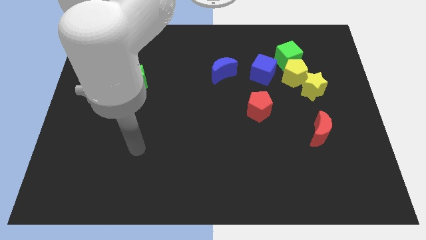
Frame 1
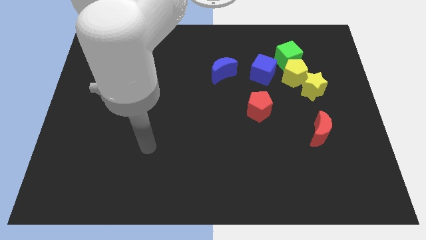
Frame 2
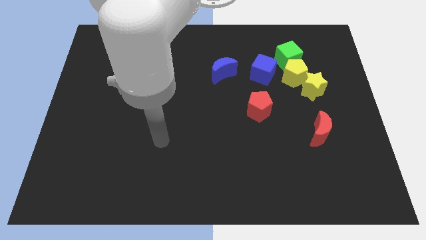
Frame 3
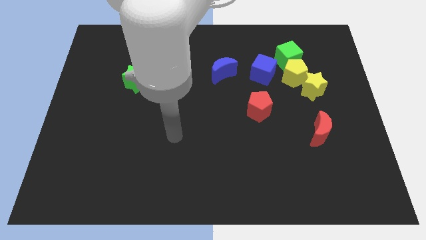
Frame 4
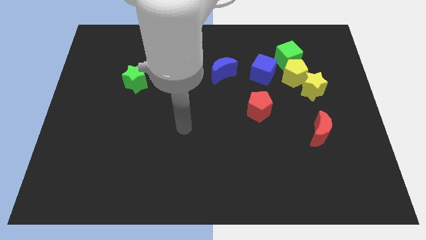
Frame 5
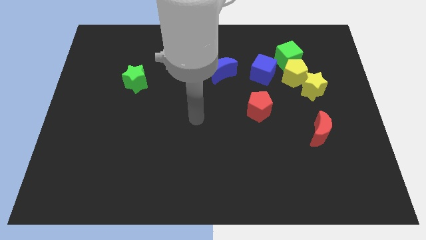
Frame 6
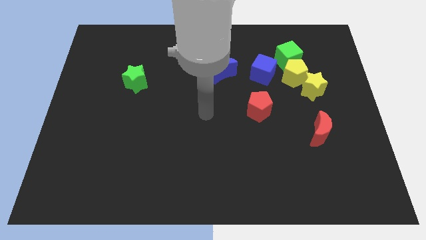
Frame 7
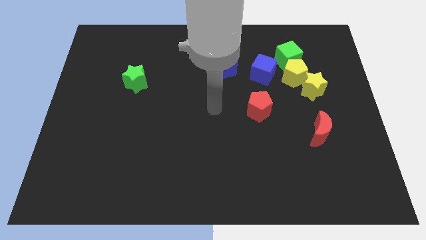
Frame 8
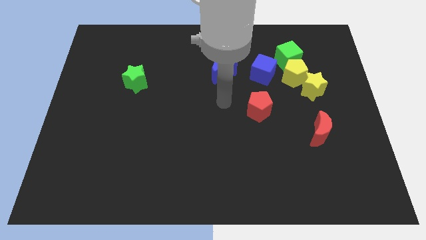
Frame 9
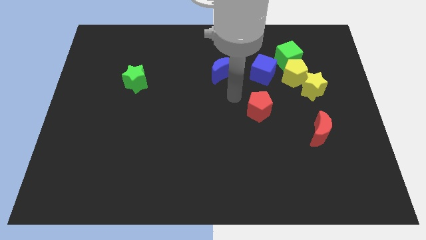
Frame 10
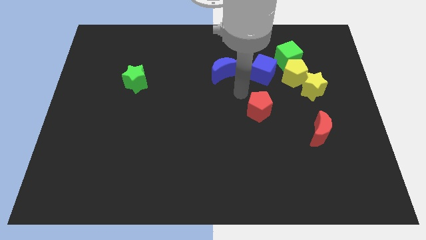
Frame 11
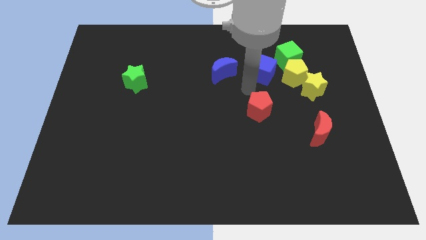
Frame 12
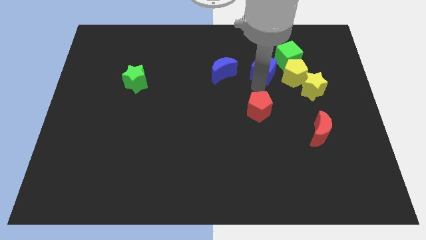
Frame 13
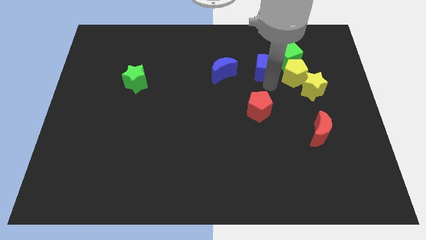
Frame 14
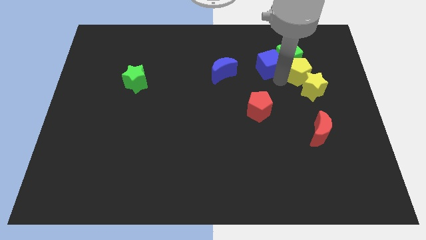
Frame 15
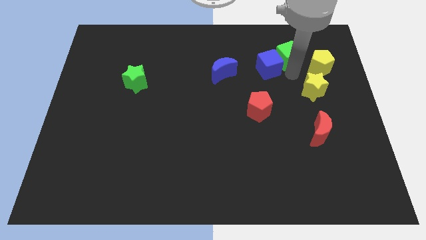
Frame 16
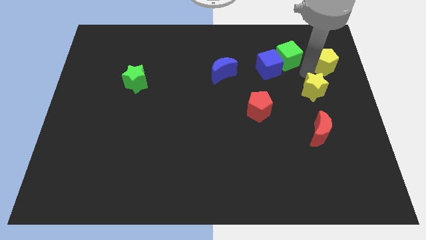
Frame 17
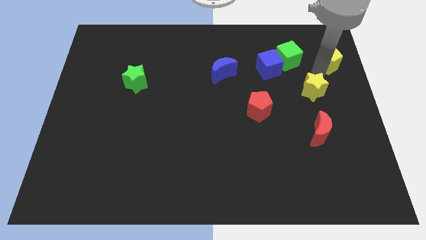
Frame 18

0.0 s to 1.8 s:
move the yellow star away from the yellow pentagon

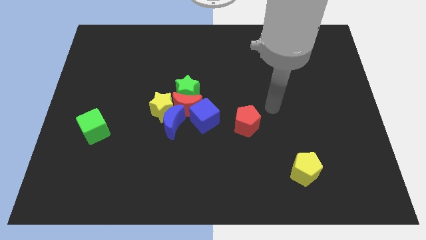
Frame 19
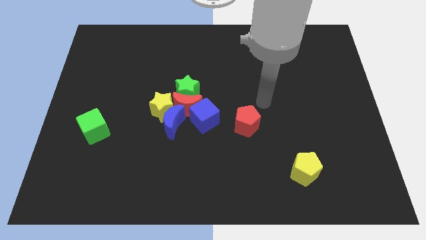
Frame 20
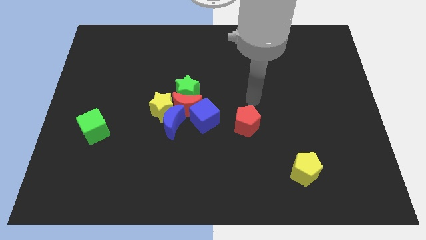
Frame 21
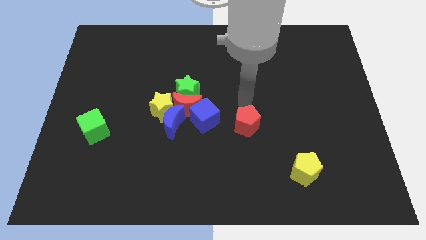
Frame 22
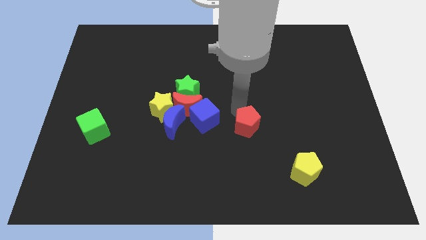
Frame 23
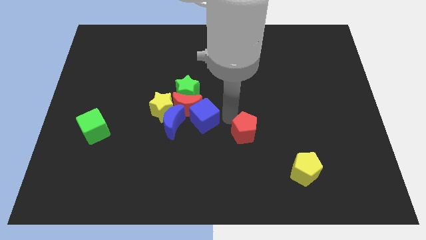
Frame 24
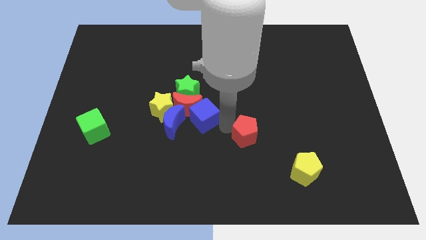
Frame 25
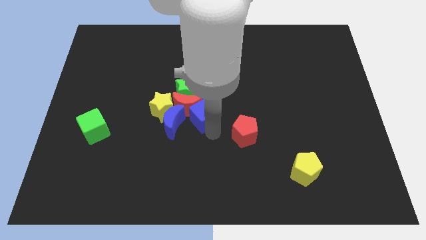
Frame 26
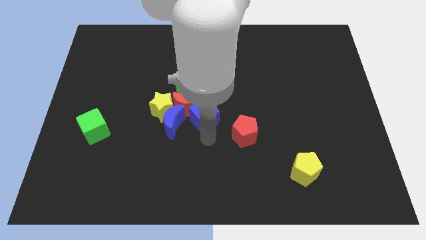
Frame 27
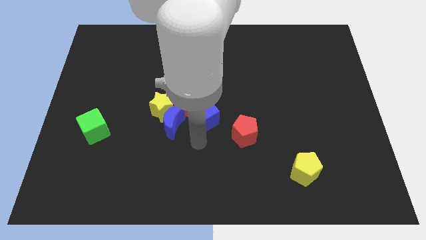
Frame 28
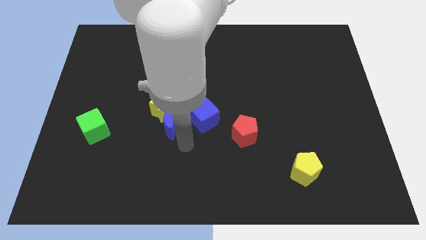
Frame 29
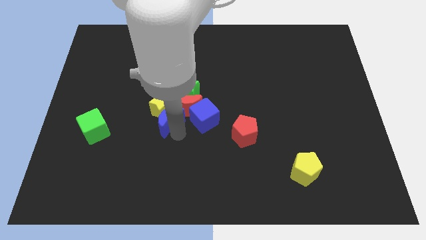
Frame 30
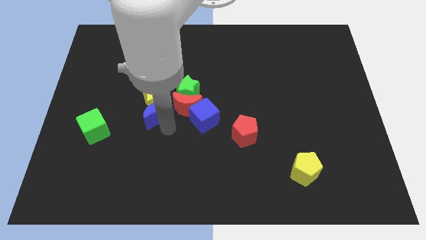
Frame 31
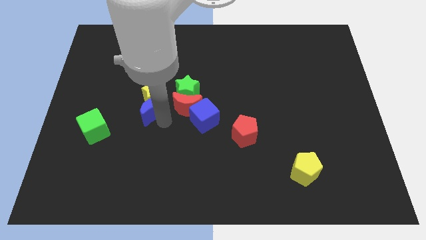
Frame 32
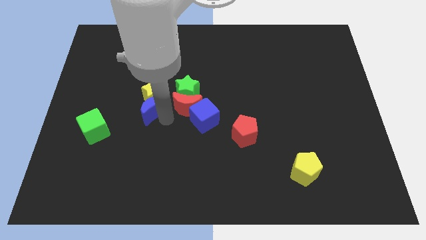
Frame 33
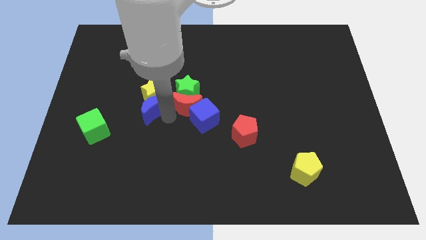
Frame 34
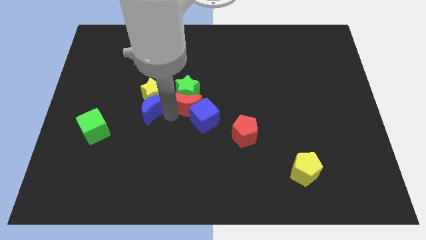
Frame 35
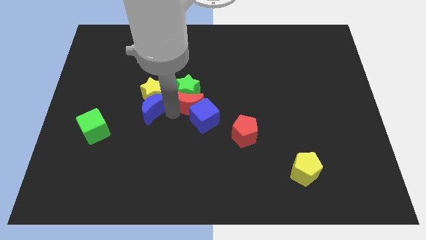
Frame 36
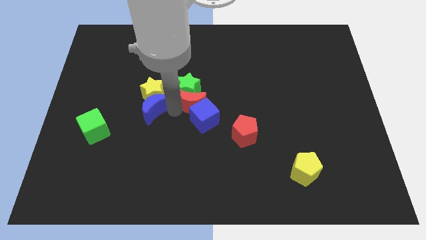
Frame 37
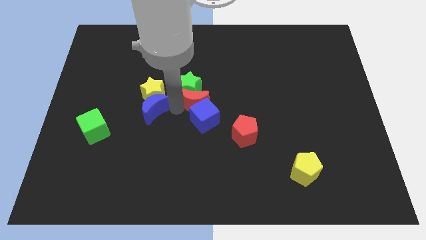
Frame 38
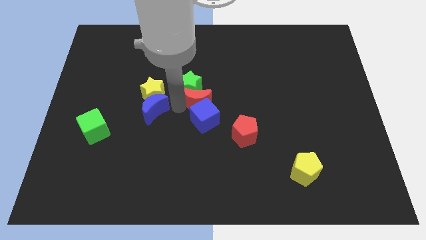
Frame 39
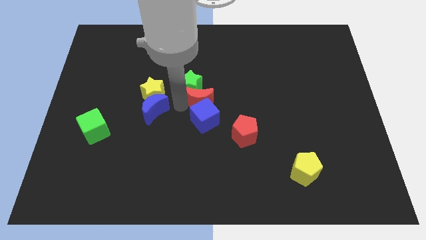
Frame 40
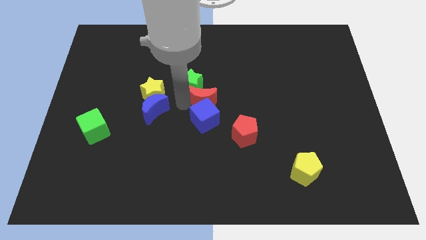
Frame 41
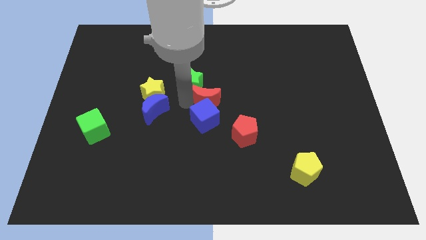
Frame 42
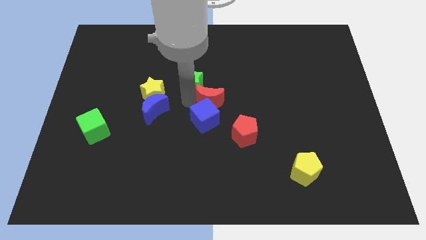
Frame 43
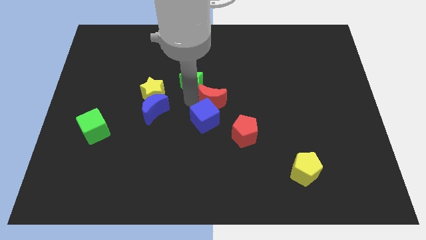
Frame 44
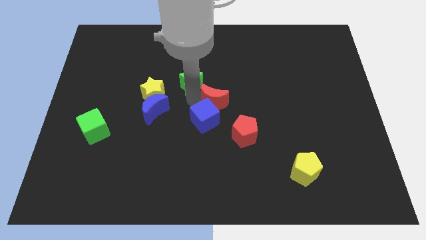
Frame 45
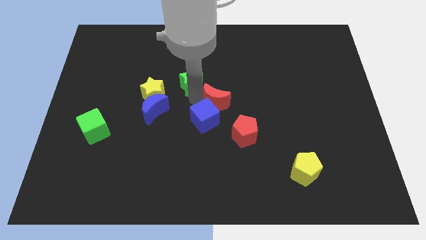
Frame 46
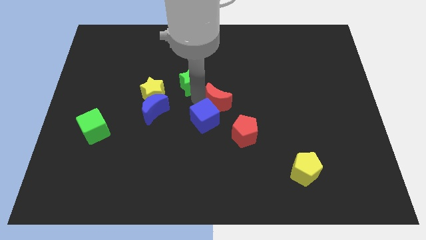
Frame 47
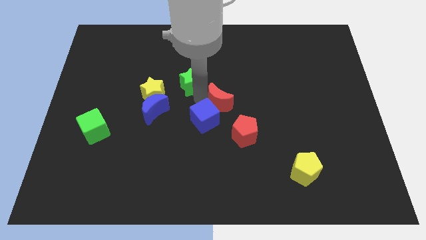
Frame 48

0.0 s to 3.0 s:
separate the red moon from the group of blocks

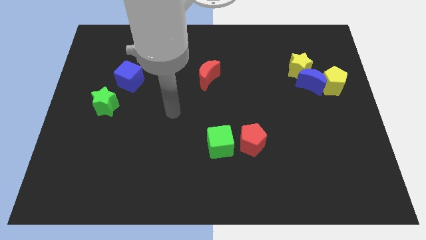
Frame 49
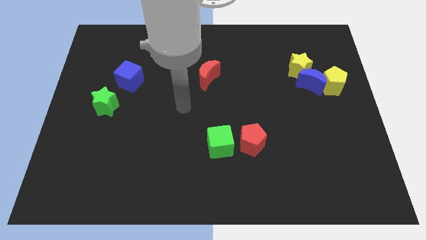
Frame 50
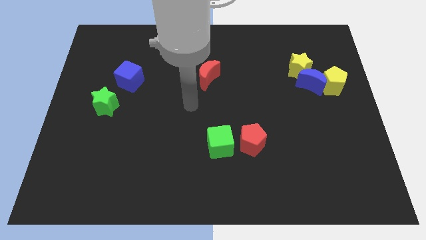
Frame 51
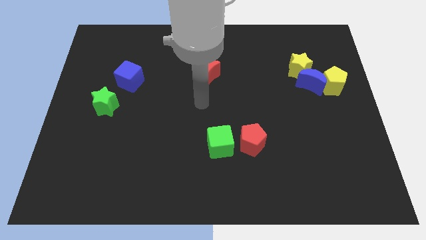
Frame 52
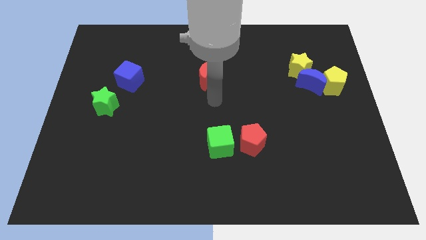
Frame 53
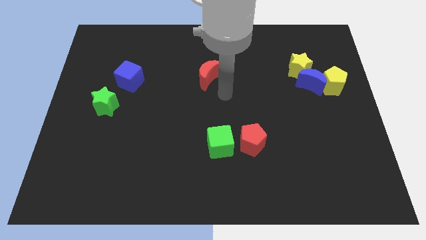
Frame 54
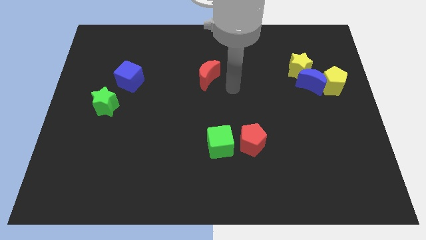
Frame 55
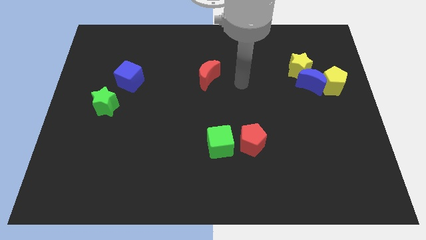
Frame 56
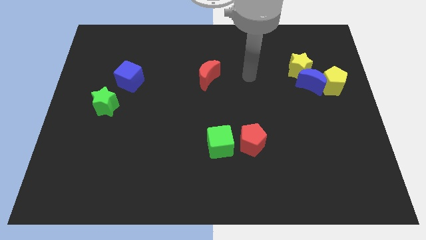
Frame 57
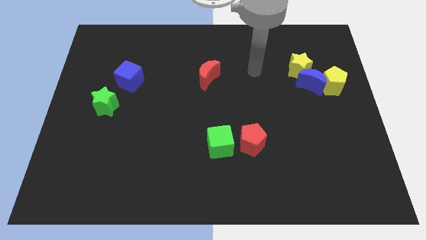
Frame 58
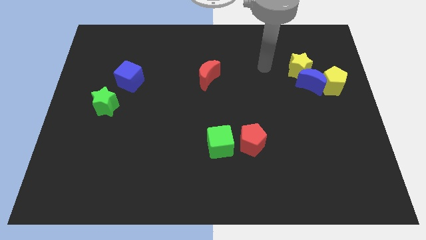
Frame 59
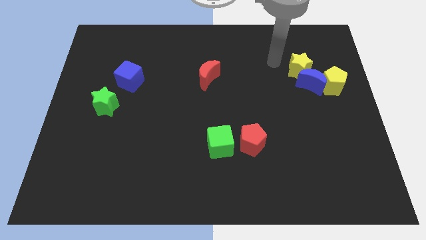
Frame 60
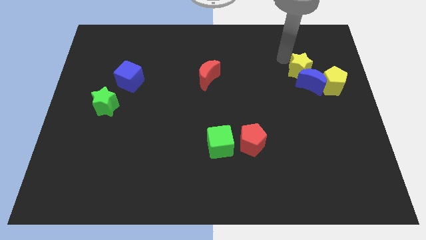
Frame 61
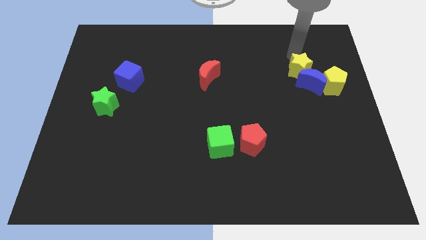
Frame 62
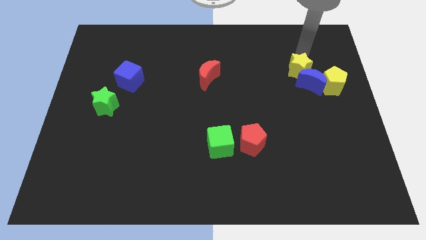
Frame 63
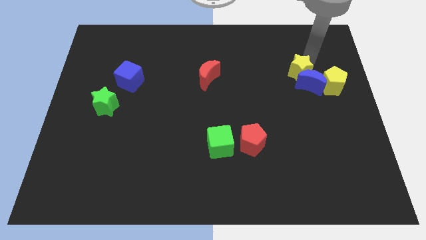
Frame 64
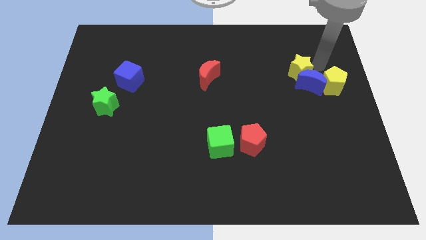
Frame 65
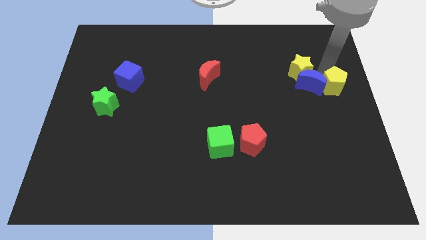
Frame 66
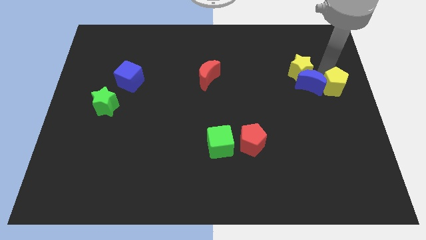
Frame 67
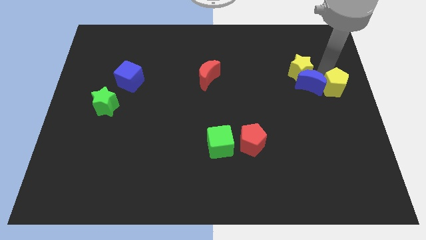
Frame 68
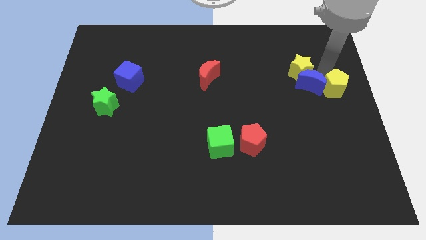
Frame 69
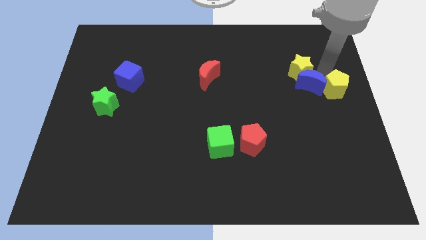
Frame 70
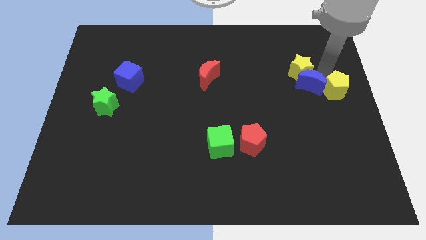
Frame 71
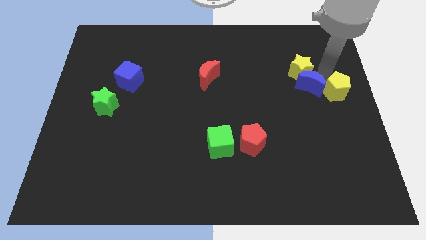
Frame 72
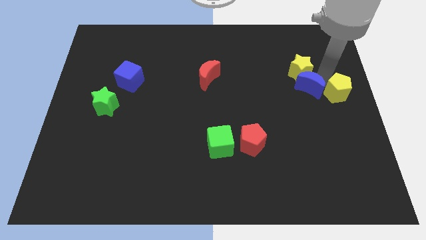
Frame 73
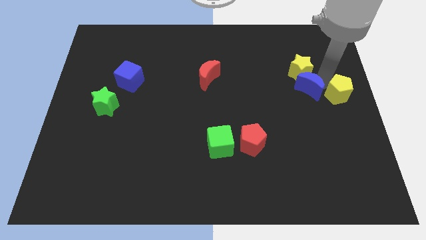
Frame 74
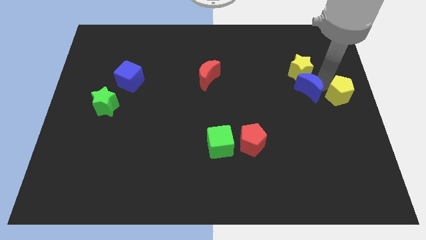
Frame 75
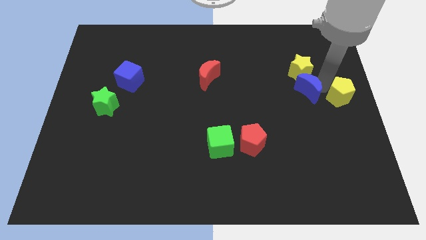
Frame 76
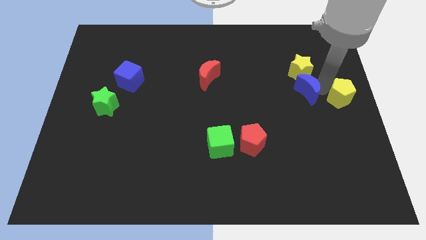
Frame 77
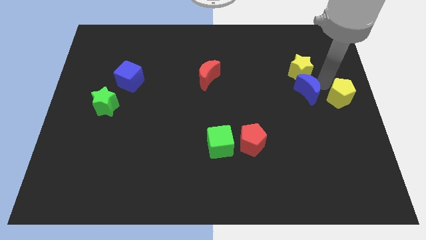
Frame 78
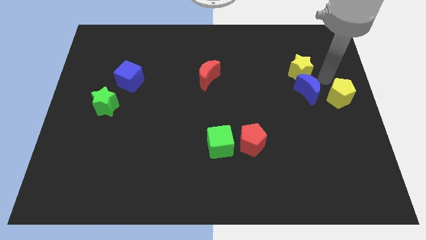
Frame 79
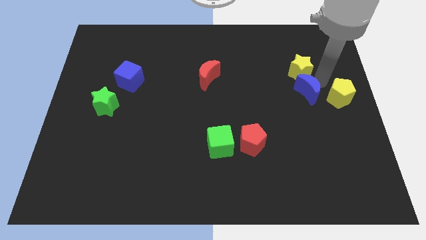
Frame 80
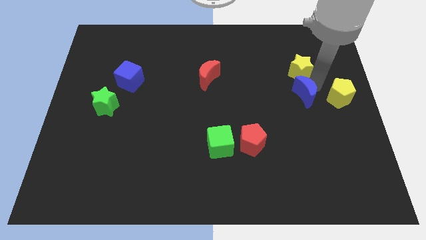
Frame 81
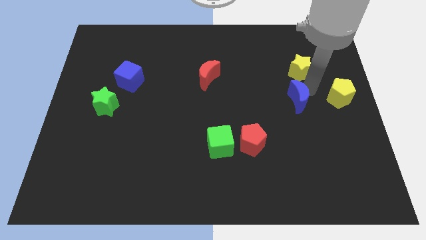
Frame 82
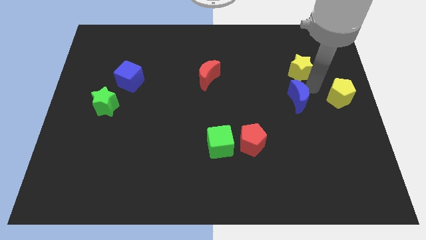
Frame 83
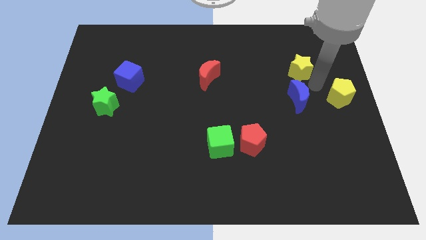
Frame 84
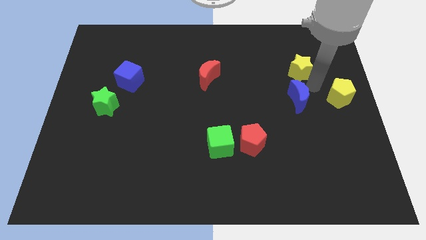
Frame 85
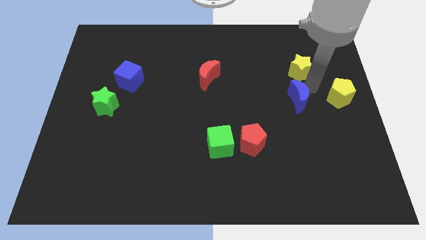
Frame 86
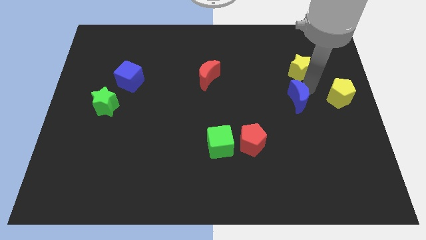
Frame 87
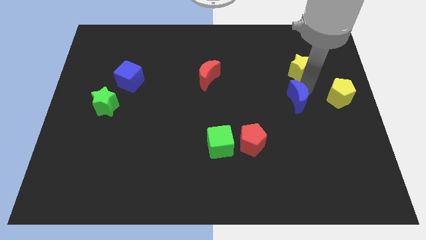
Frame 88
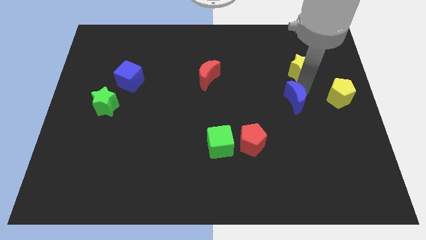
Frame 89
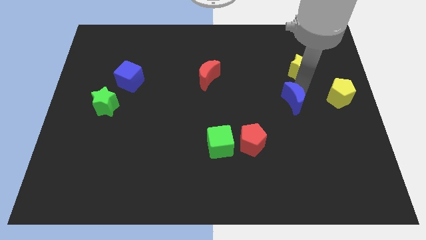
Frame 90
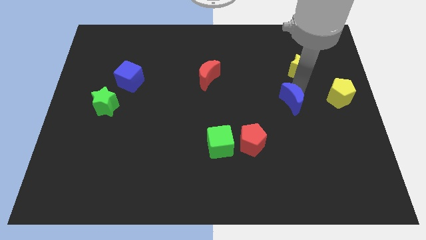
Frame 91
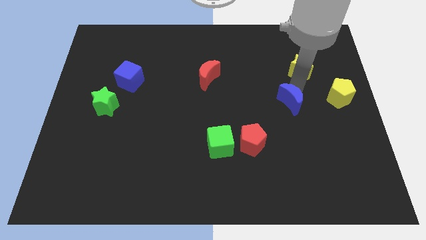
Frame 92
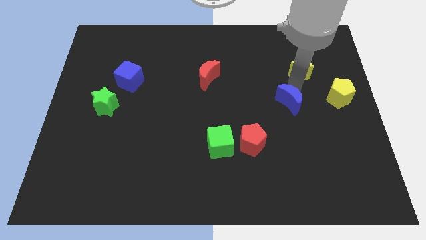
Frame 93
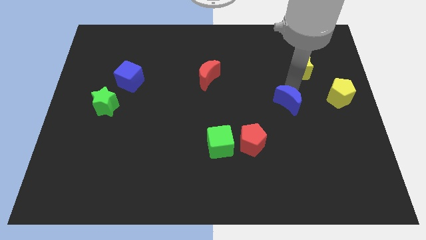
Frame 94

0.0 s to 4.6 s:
separate the blue moon from the yellow pentagon and yellow star

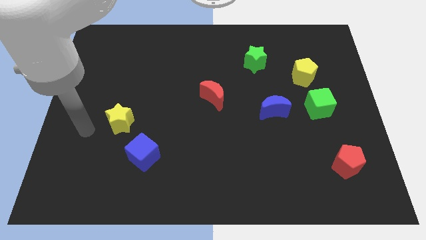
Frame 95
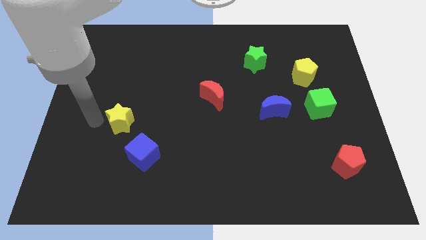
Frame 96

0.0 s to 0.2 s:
pull the green cube apart from the yellow pentagon
